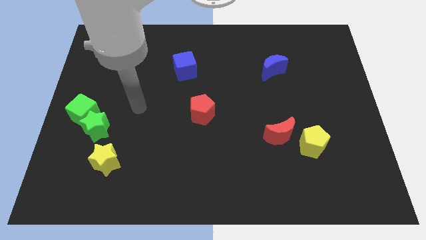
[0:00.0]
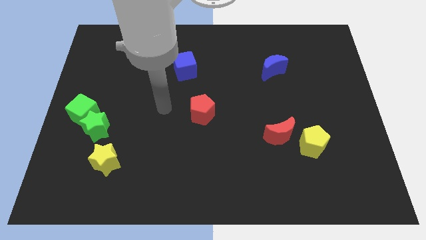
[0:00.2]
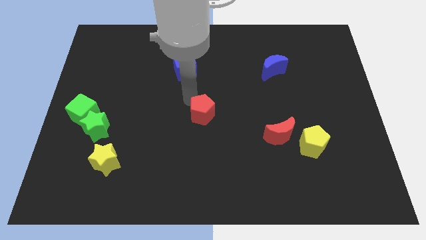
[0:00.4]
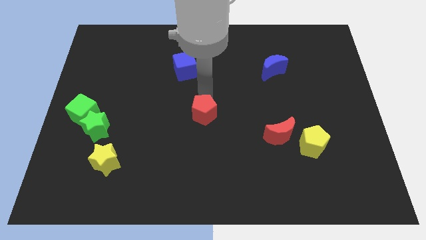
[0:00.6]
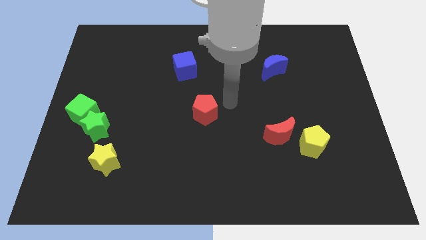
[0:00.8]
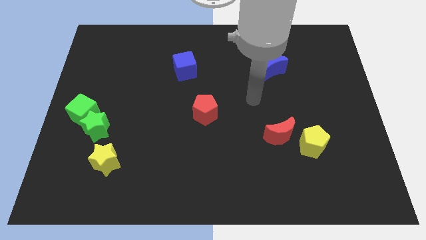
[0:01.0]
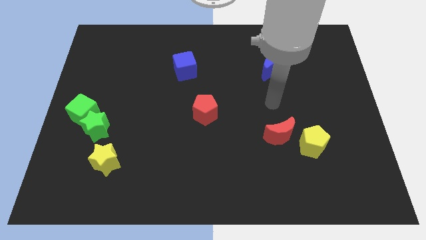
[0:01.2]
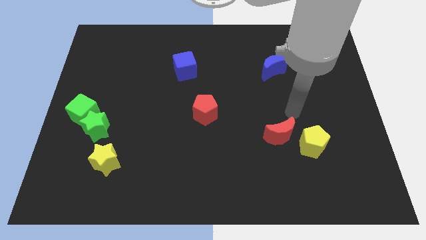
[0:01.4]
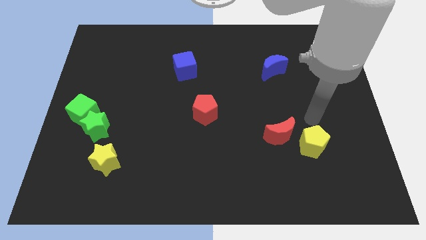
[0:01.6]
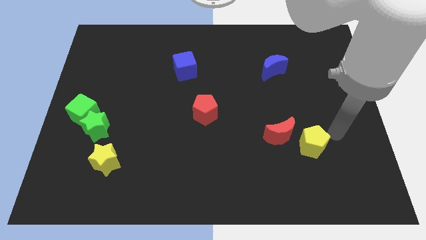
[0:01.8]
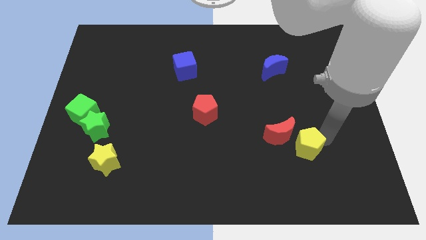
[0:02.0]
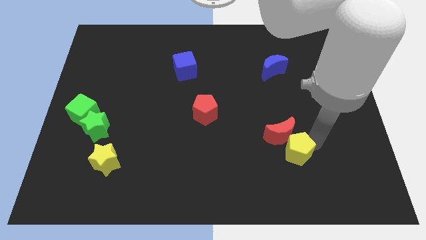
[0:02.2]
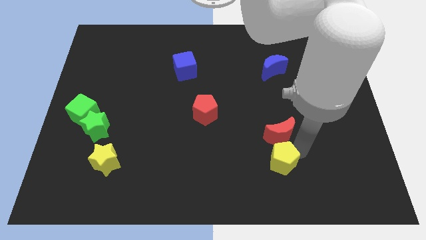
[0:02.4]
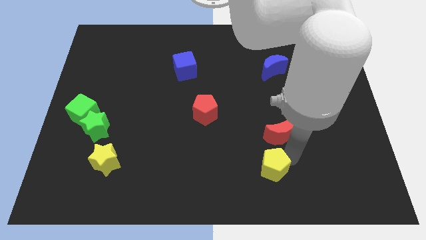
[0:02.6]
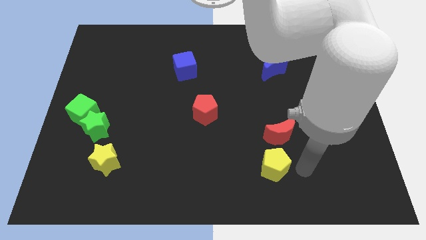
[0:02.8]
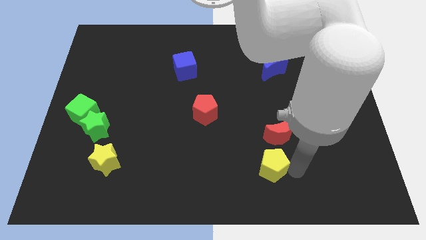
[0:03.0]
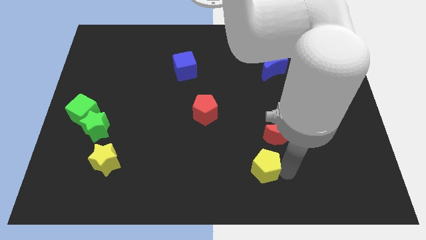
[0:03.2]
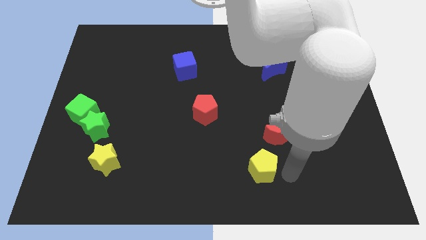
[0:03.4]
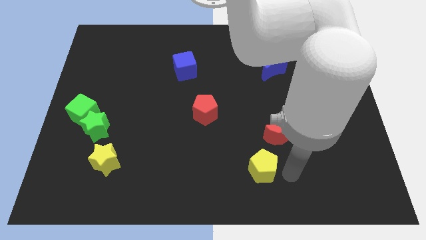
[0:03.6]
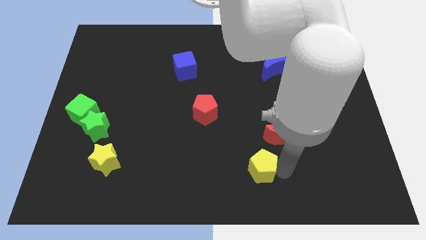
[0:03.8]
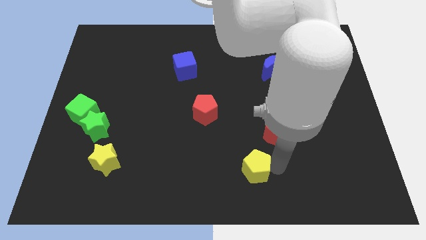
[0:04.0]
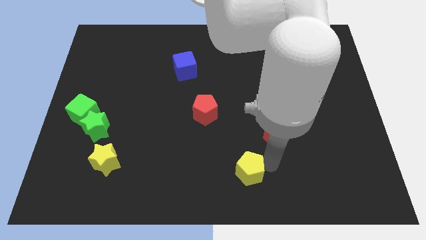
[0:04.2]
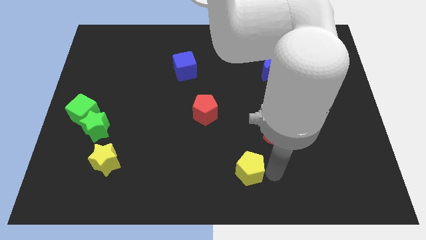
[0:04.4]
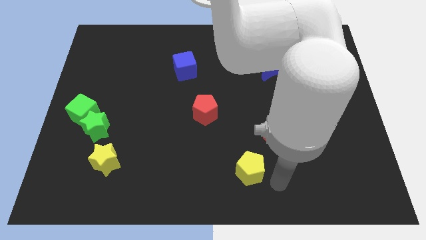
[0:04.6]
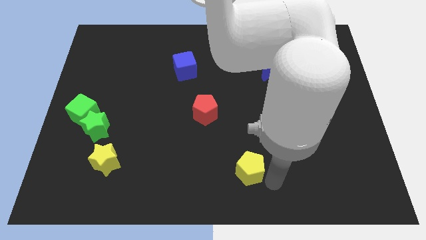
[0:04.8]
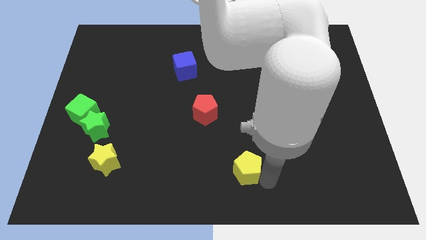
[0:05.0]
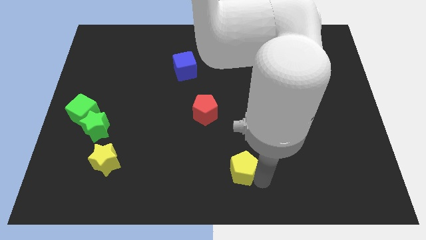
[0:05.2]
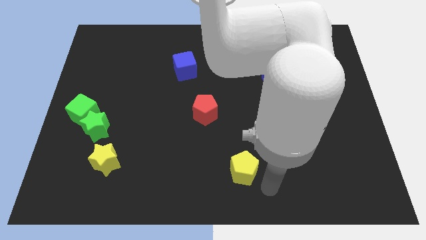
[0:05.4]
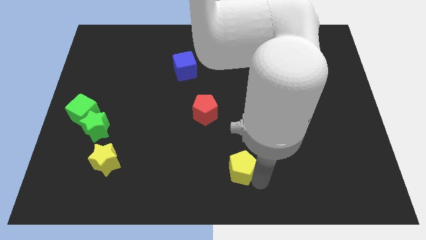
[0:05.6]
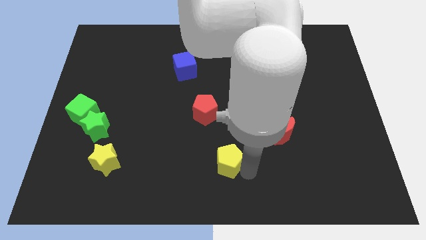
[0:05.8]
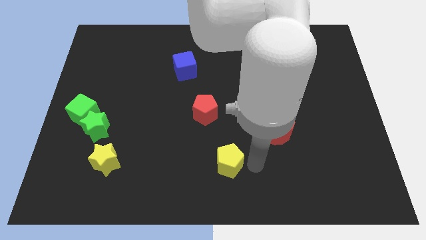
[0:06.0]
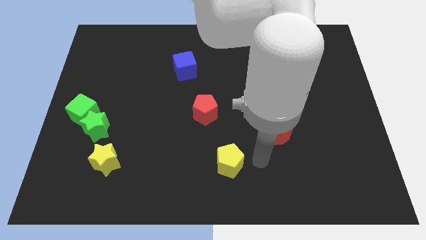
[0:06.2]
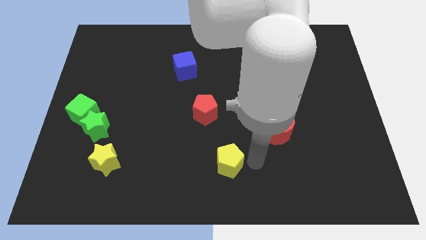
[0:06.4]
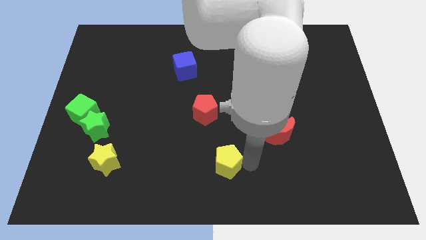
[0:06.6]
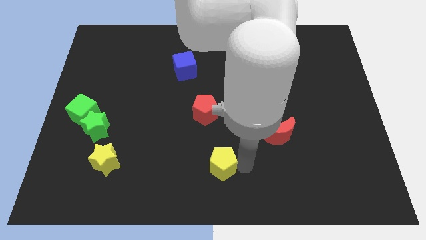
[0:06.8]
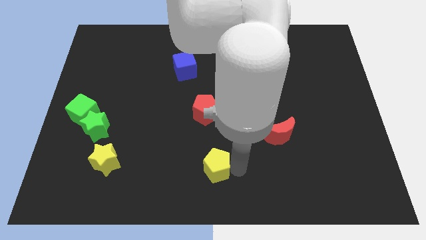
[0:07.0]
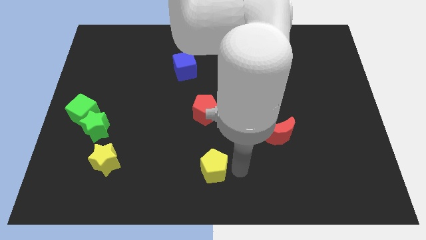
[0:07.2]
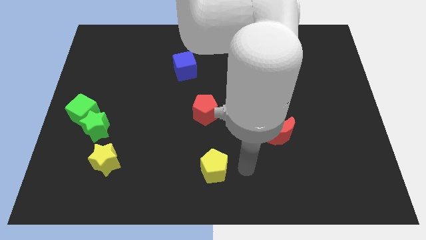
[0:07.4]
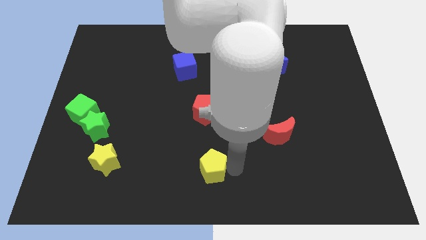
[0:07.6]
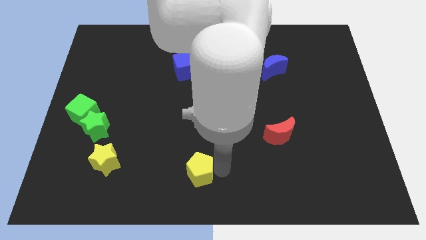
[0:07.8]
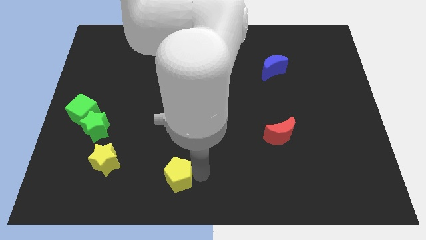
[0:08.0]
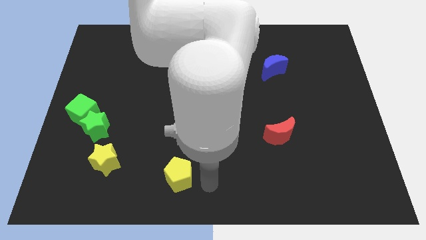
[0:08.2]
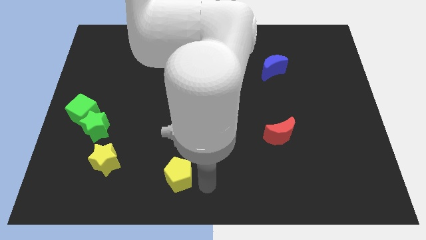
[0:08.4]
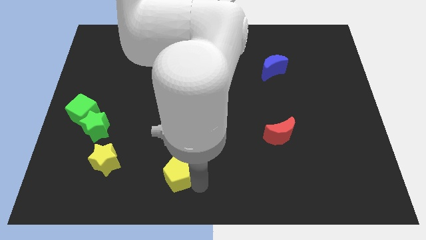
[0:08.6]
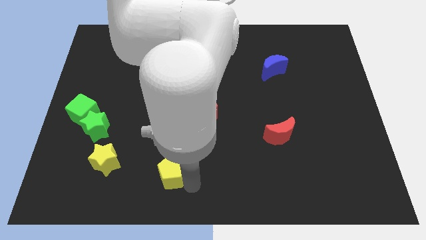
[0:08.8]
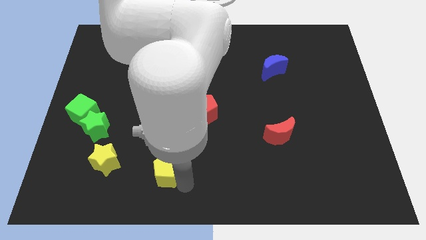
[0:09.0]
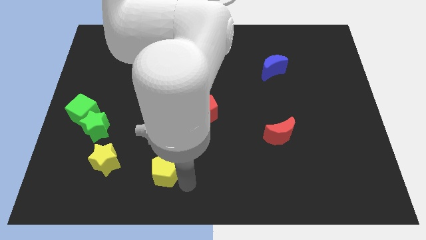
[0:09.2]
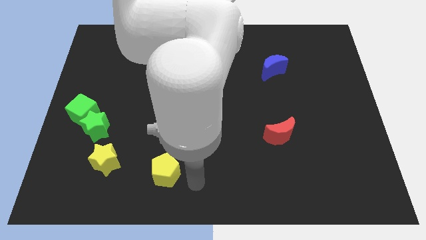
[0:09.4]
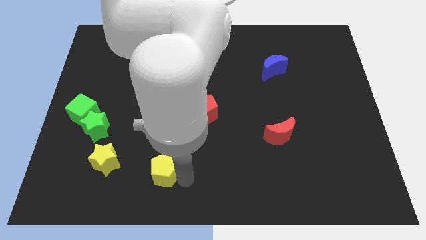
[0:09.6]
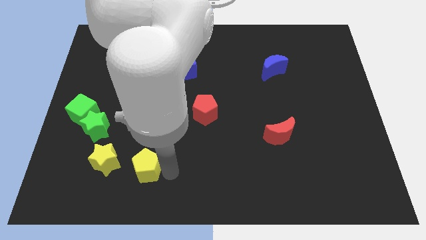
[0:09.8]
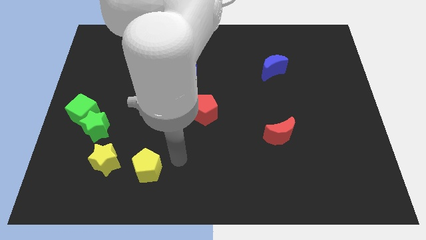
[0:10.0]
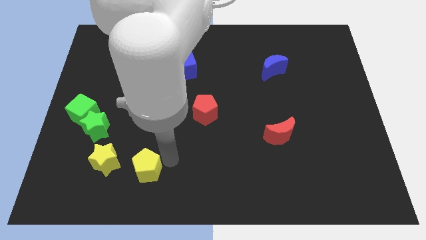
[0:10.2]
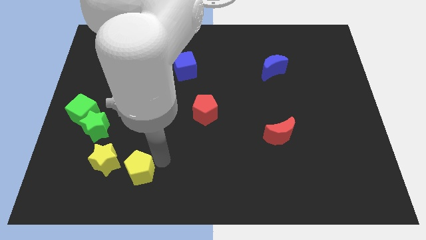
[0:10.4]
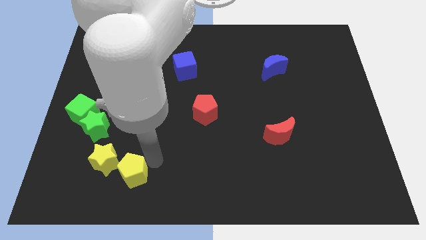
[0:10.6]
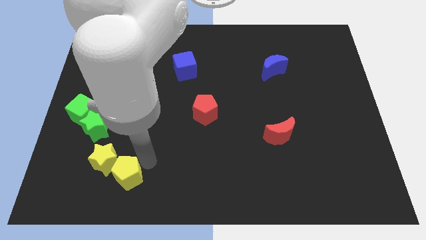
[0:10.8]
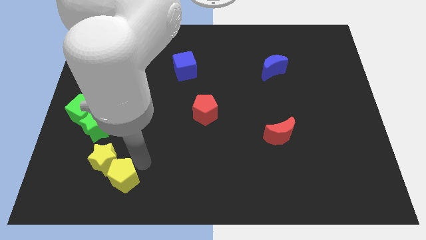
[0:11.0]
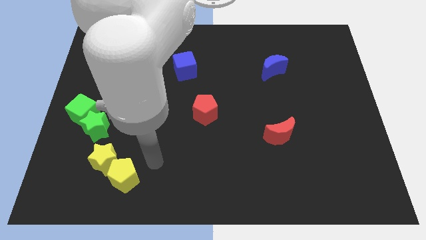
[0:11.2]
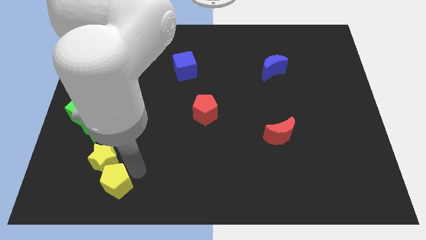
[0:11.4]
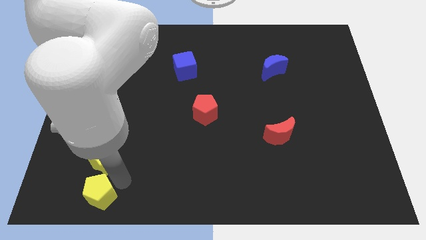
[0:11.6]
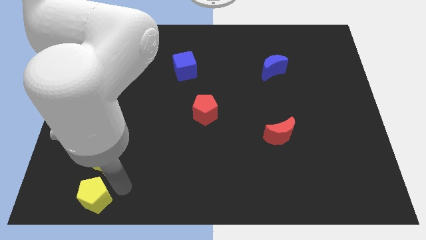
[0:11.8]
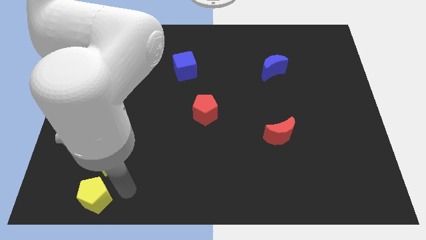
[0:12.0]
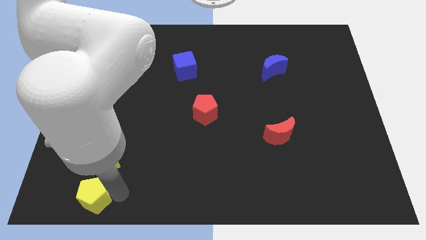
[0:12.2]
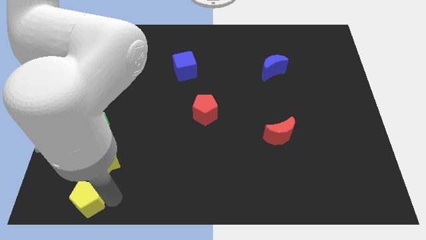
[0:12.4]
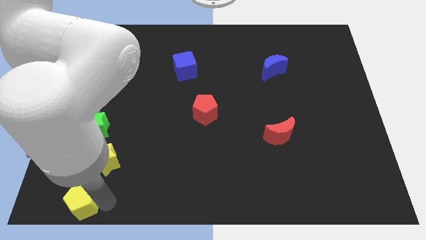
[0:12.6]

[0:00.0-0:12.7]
slide the yellow pentagon to the lower left corner

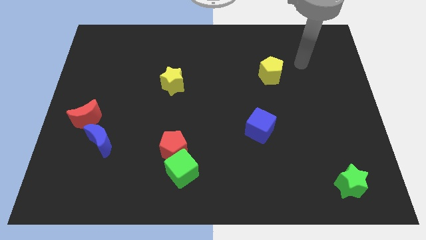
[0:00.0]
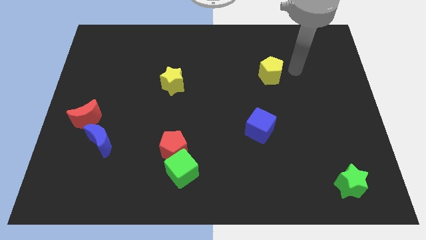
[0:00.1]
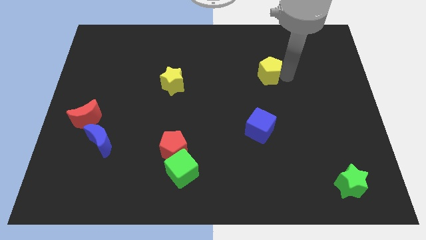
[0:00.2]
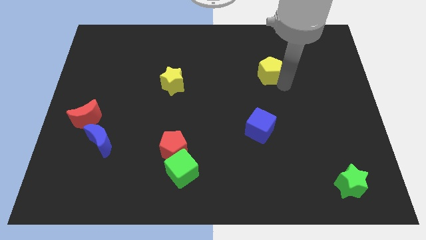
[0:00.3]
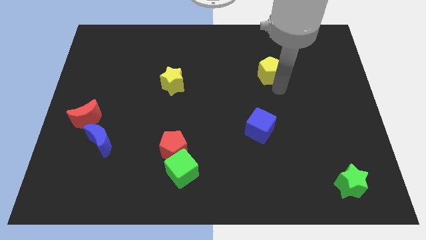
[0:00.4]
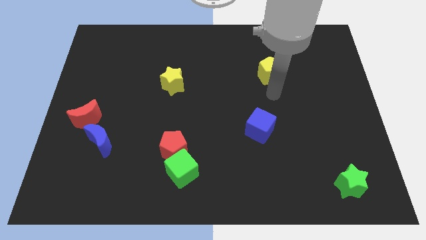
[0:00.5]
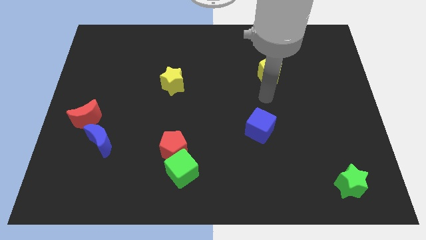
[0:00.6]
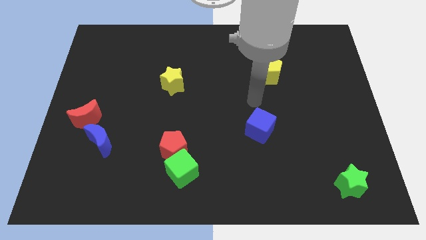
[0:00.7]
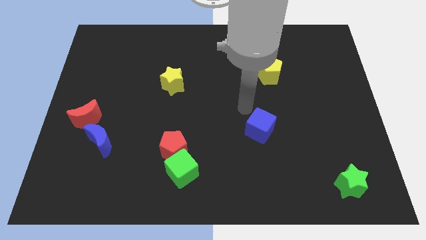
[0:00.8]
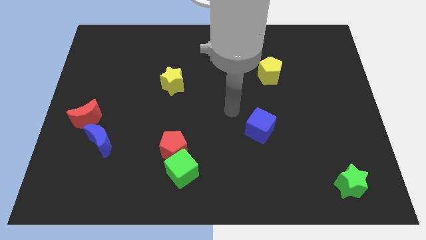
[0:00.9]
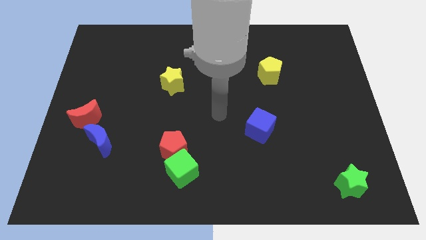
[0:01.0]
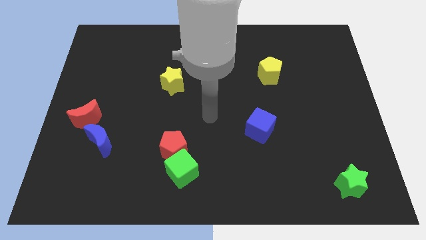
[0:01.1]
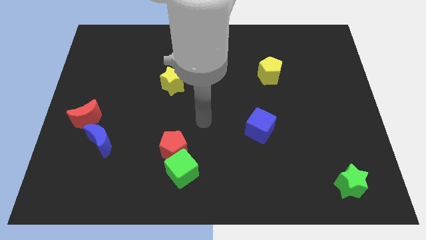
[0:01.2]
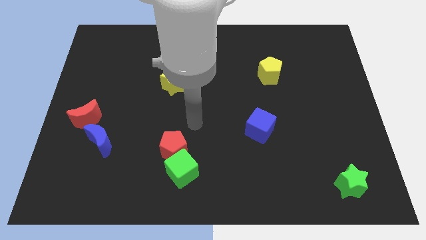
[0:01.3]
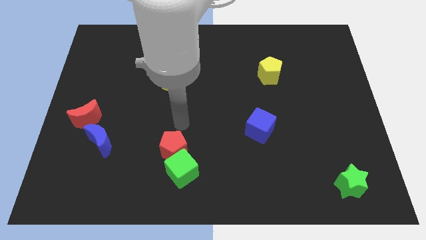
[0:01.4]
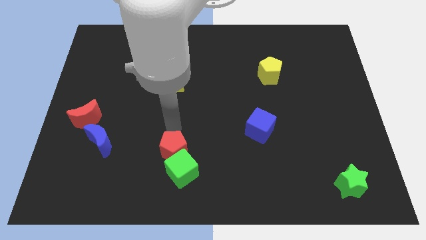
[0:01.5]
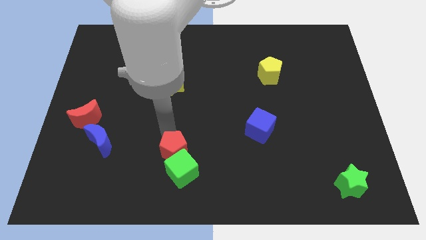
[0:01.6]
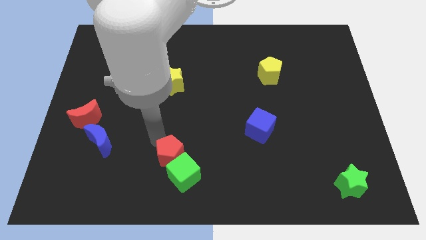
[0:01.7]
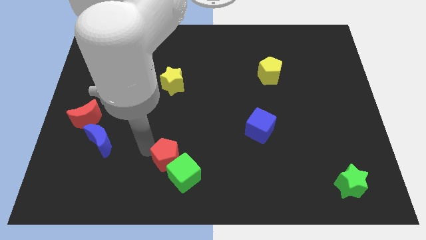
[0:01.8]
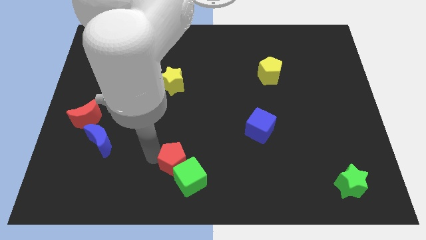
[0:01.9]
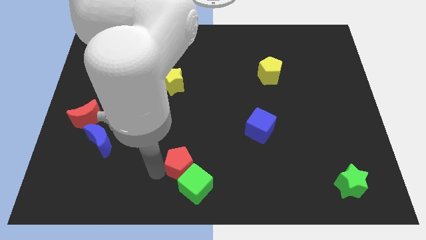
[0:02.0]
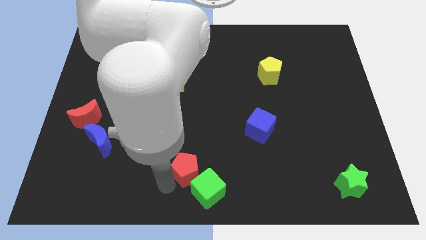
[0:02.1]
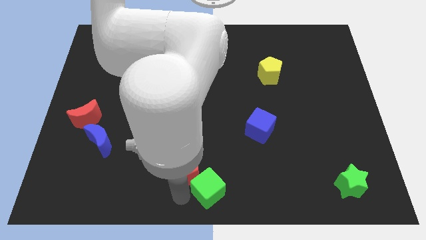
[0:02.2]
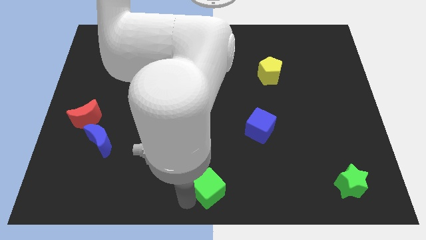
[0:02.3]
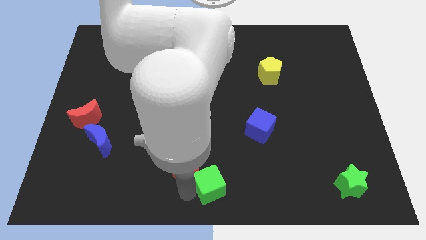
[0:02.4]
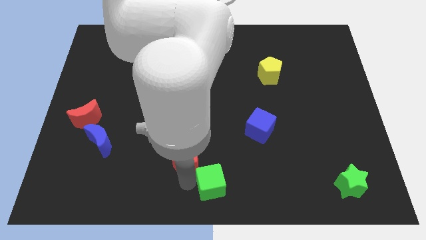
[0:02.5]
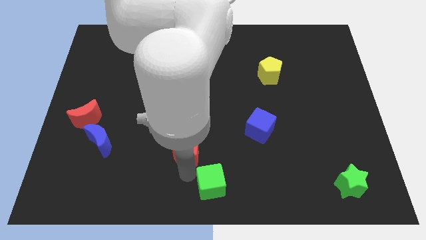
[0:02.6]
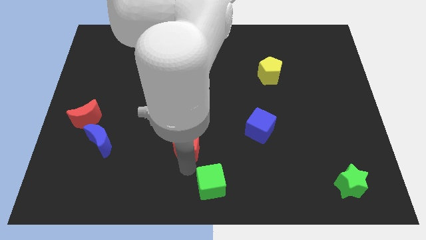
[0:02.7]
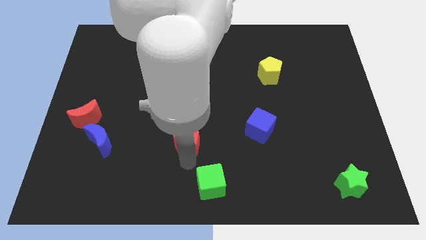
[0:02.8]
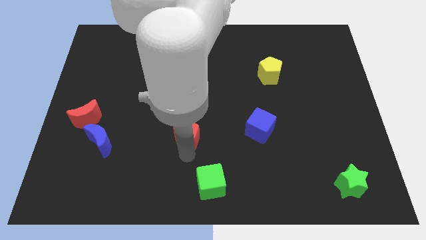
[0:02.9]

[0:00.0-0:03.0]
put the red pentagon to the middle of the board
